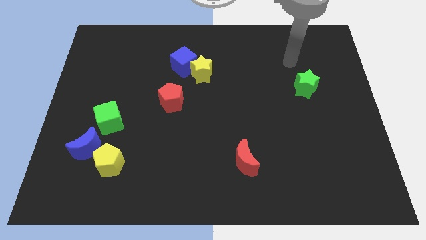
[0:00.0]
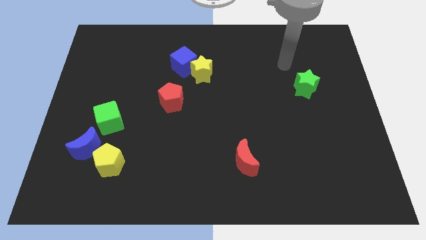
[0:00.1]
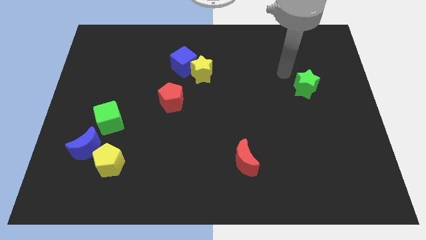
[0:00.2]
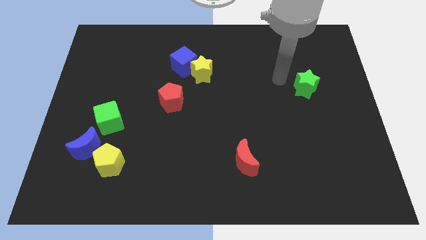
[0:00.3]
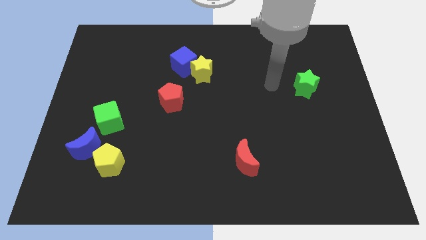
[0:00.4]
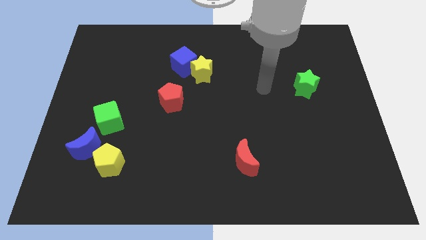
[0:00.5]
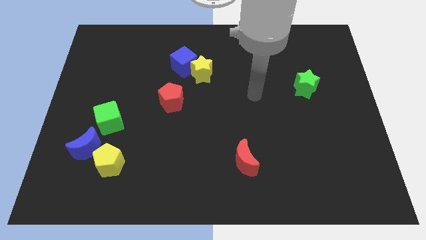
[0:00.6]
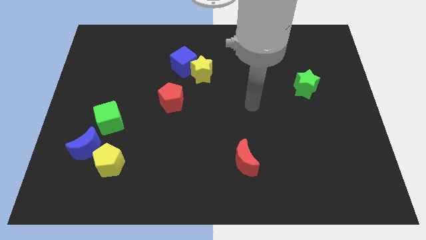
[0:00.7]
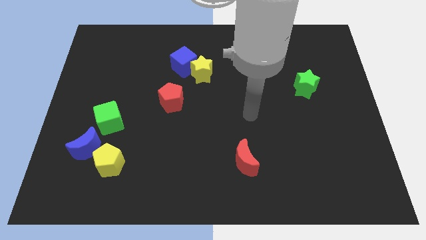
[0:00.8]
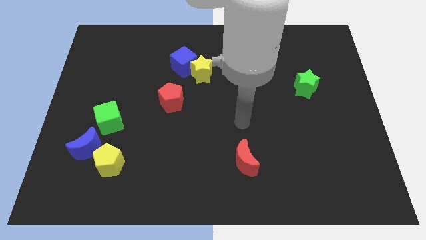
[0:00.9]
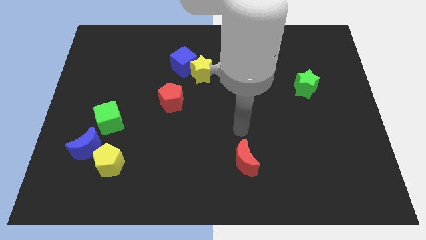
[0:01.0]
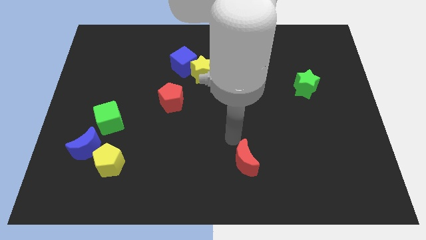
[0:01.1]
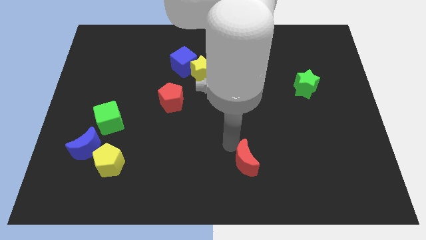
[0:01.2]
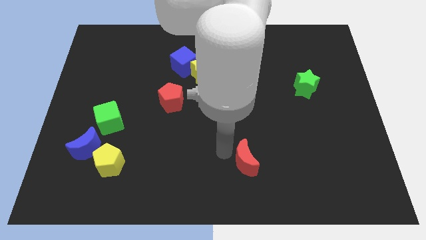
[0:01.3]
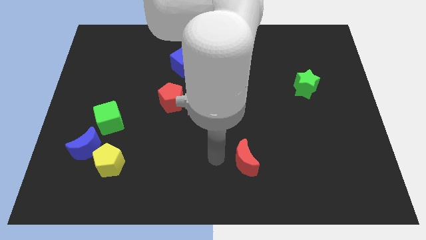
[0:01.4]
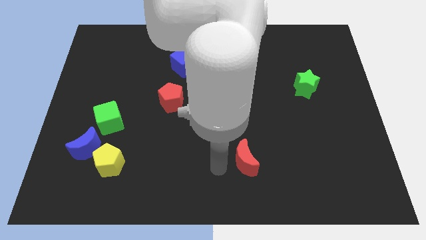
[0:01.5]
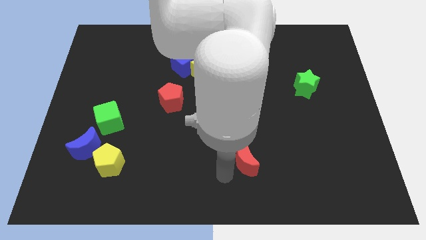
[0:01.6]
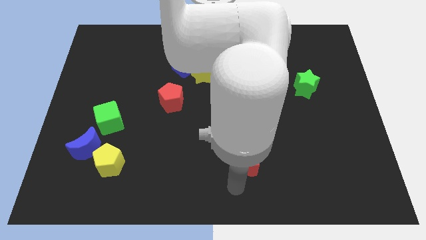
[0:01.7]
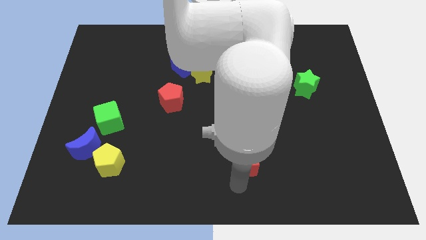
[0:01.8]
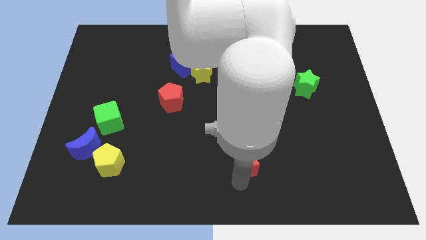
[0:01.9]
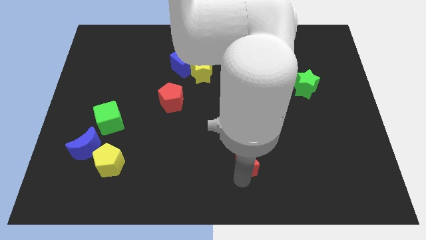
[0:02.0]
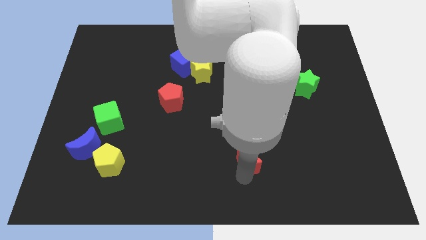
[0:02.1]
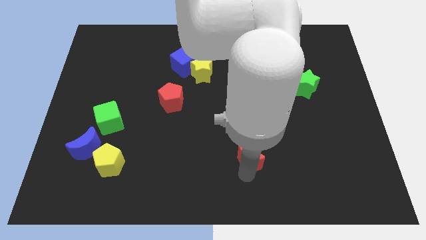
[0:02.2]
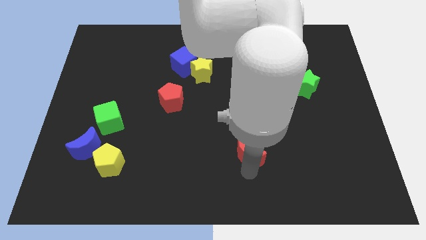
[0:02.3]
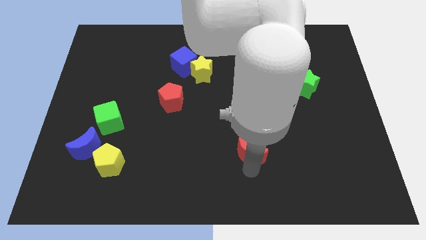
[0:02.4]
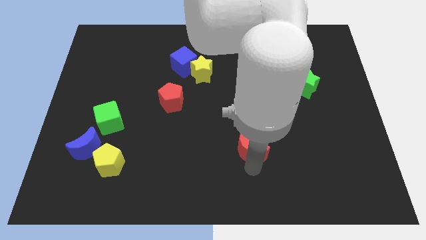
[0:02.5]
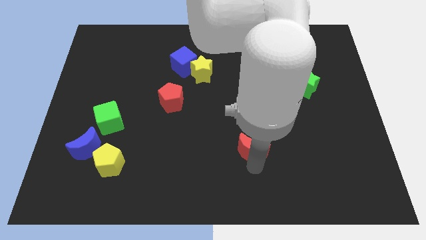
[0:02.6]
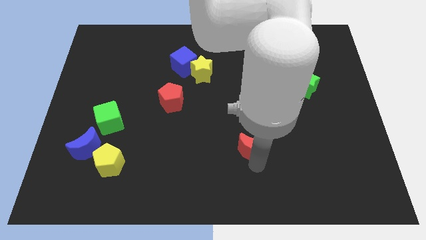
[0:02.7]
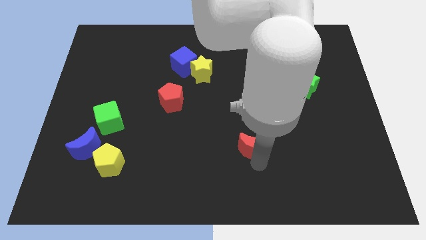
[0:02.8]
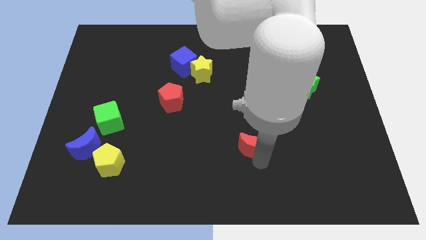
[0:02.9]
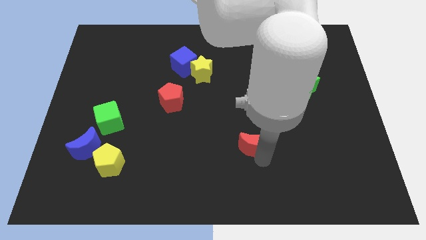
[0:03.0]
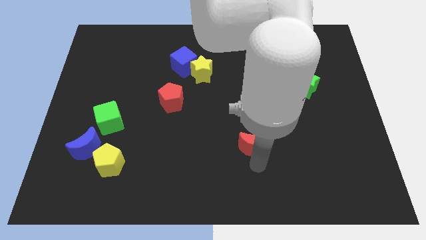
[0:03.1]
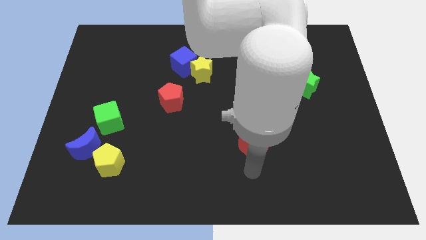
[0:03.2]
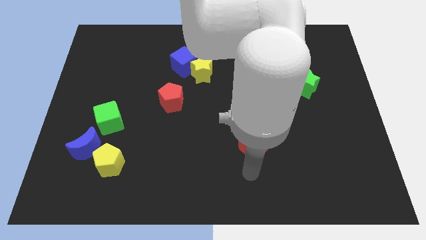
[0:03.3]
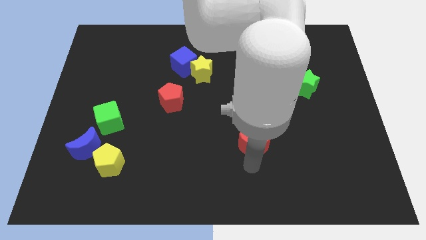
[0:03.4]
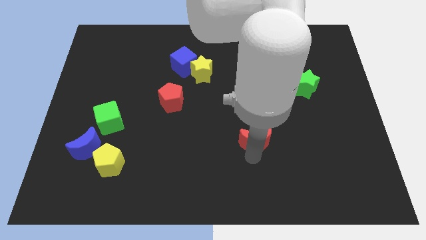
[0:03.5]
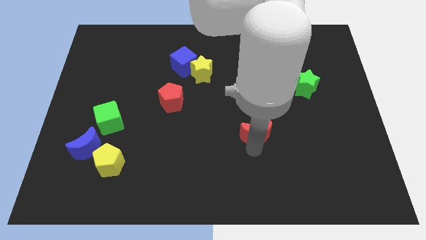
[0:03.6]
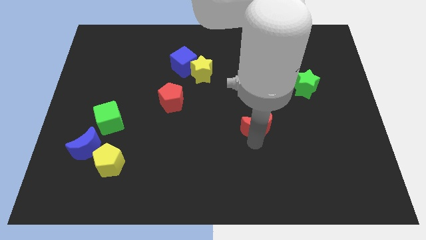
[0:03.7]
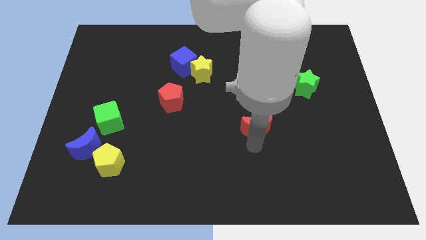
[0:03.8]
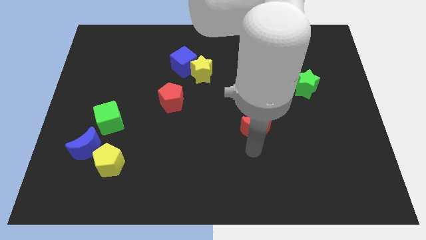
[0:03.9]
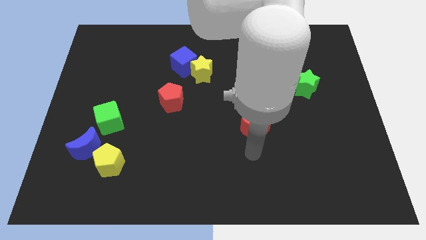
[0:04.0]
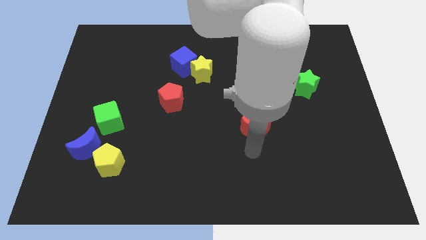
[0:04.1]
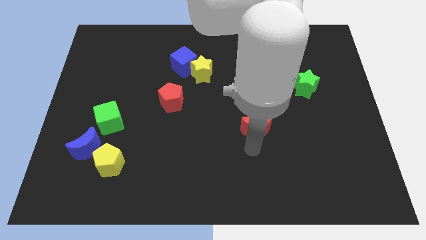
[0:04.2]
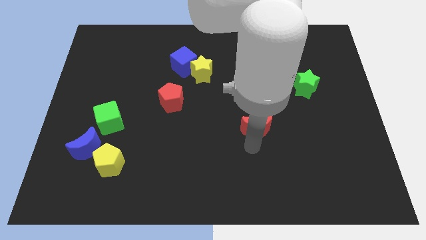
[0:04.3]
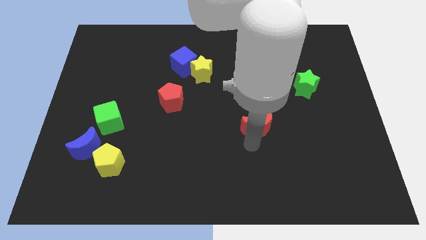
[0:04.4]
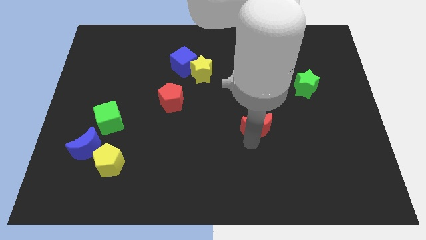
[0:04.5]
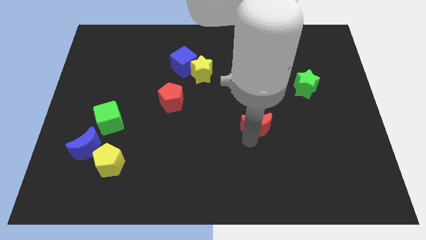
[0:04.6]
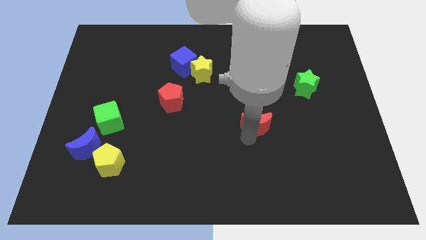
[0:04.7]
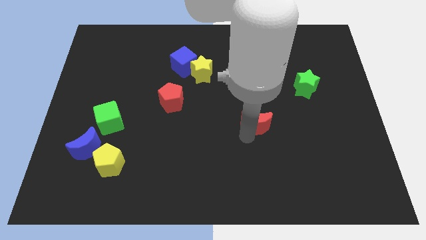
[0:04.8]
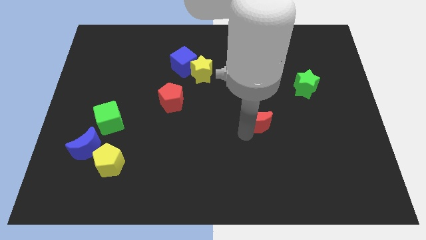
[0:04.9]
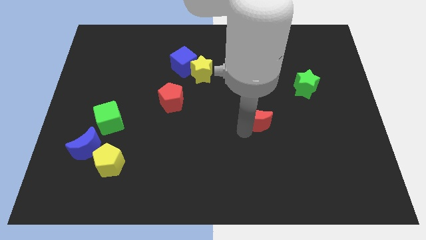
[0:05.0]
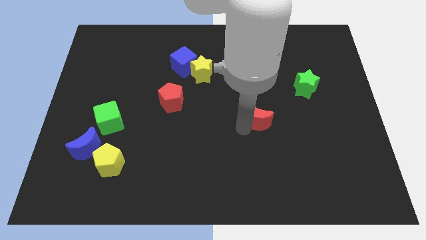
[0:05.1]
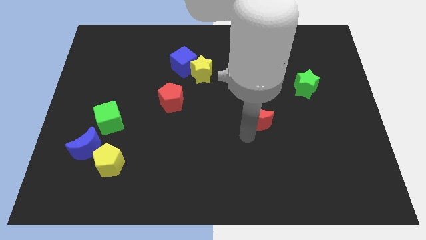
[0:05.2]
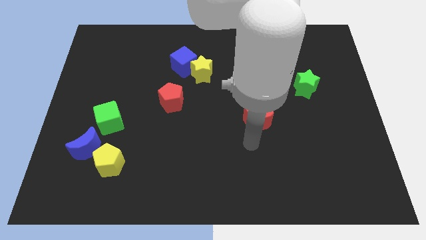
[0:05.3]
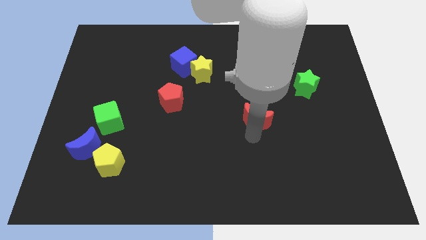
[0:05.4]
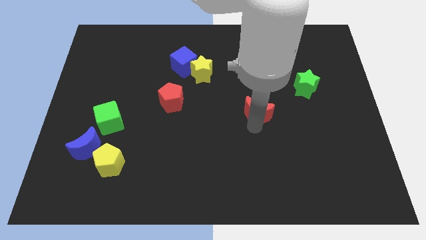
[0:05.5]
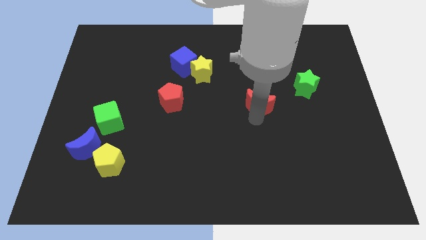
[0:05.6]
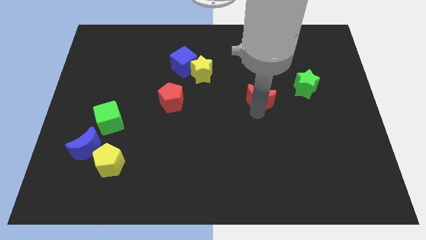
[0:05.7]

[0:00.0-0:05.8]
slide the red moon just left of the green star

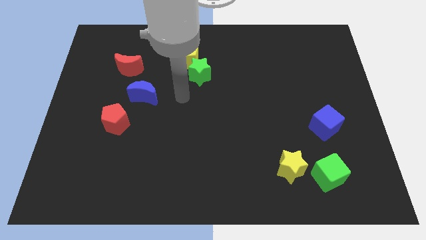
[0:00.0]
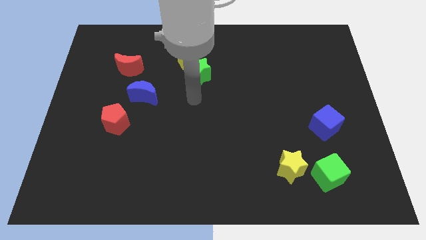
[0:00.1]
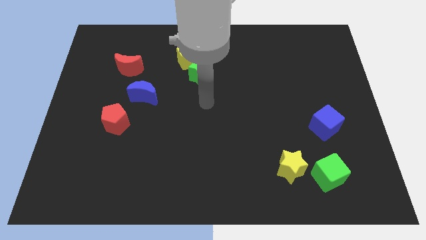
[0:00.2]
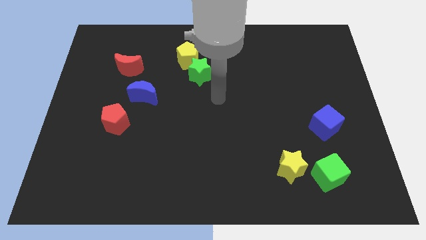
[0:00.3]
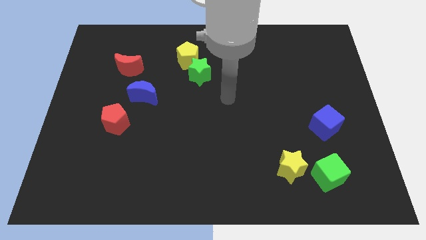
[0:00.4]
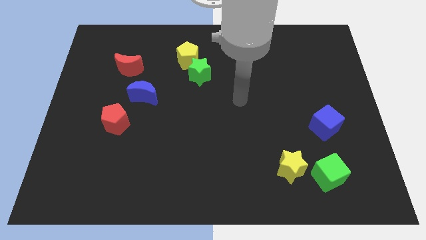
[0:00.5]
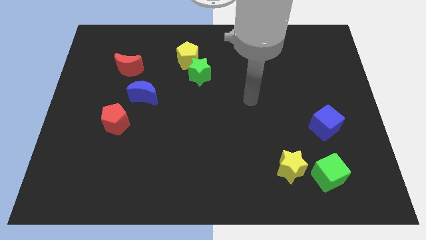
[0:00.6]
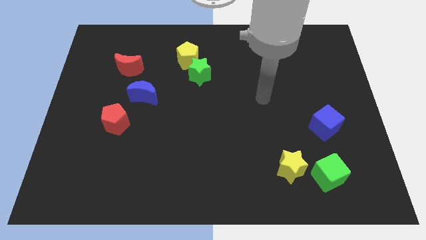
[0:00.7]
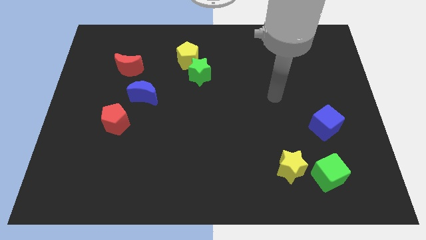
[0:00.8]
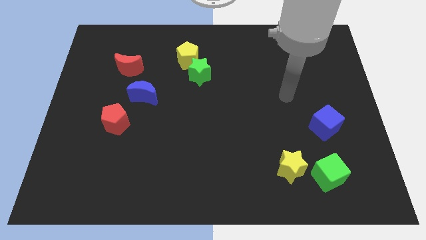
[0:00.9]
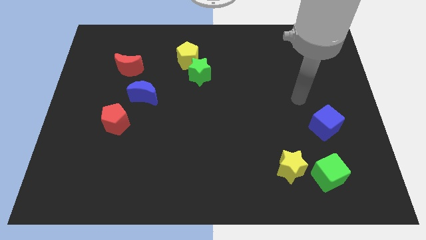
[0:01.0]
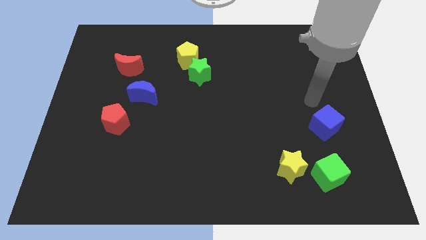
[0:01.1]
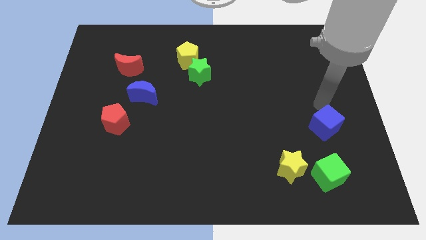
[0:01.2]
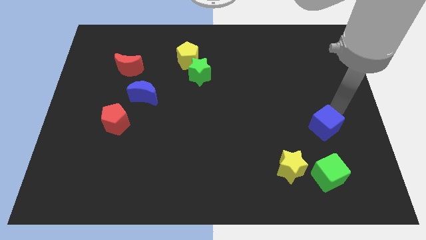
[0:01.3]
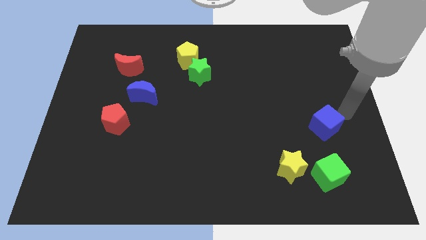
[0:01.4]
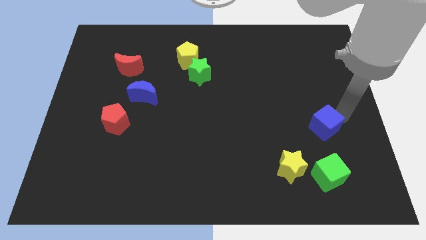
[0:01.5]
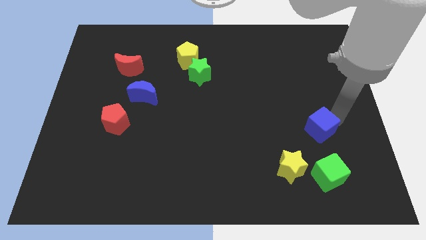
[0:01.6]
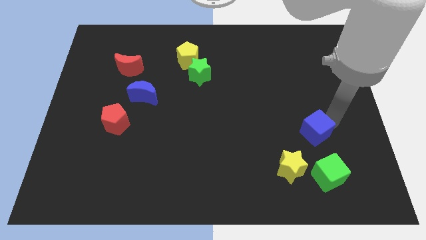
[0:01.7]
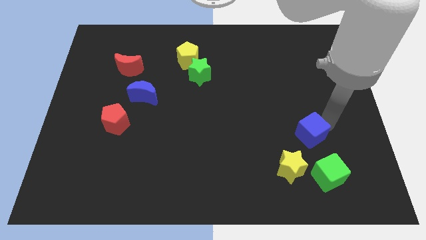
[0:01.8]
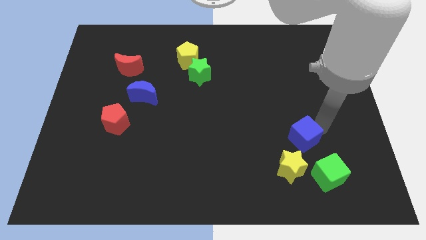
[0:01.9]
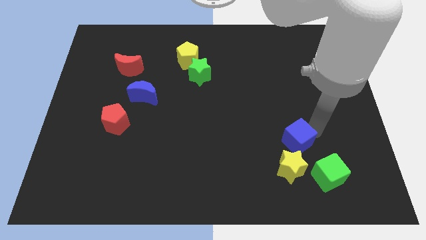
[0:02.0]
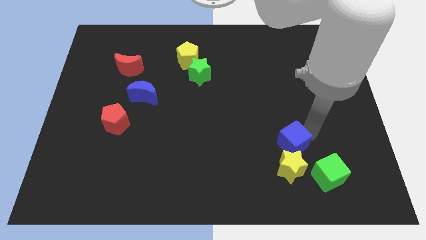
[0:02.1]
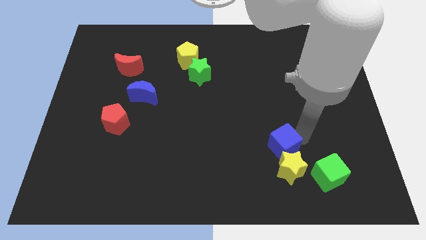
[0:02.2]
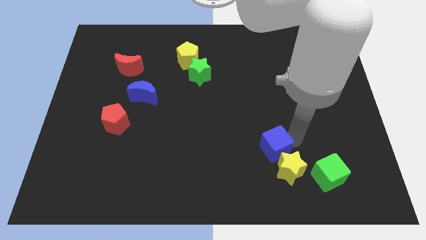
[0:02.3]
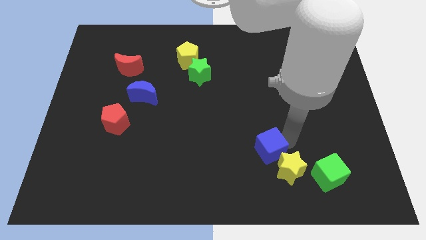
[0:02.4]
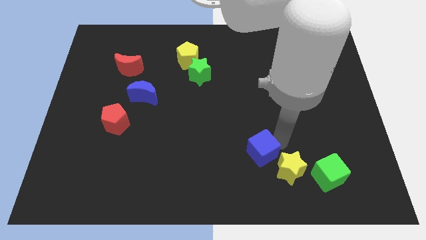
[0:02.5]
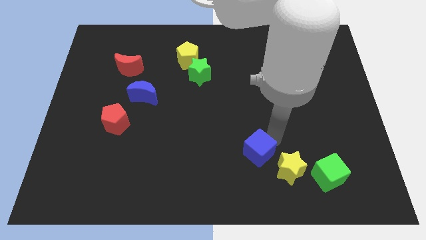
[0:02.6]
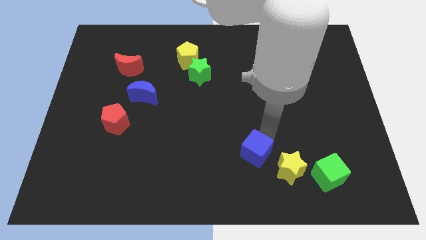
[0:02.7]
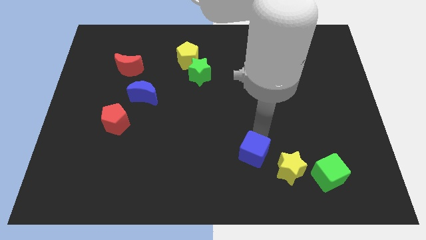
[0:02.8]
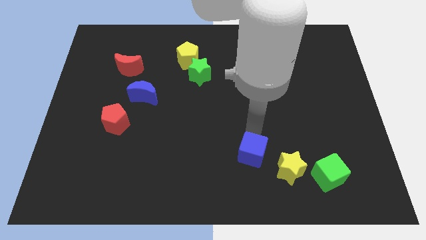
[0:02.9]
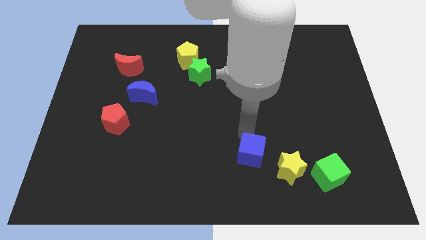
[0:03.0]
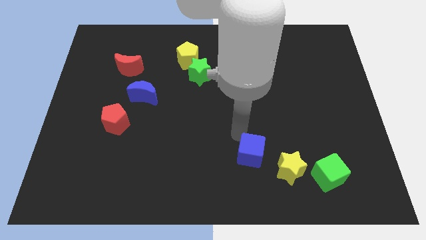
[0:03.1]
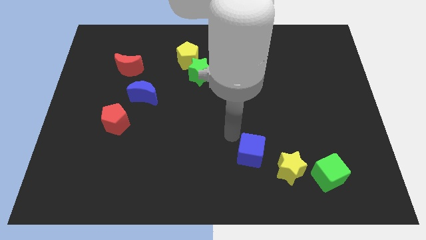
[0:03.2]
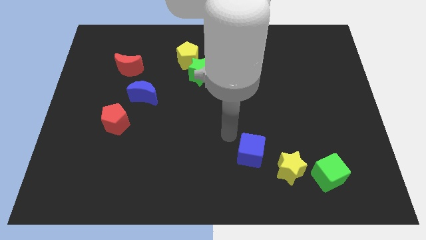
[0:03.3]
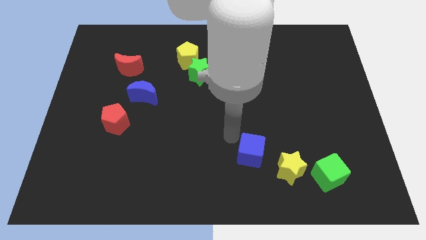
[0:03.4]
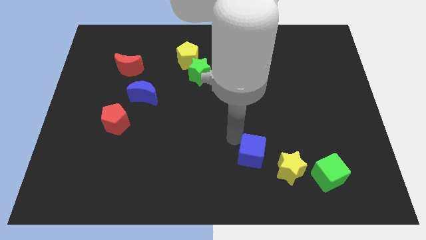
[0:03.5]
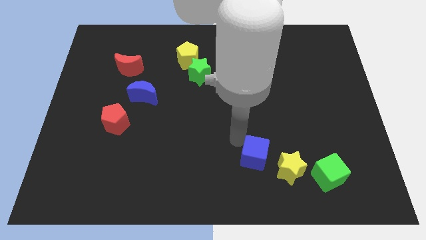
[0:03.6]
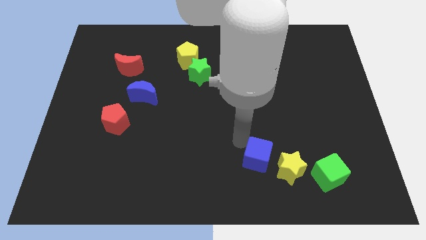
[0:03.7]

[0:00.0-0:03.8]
move the blue cube to the left of the green cube
